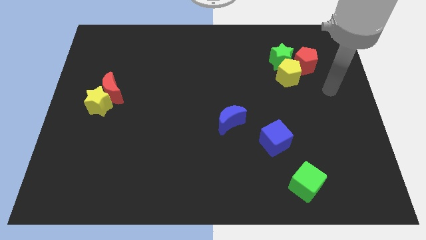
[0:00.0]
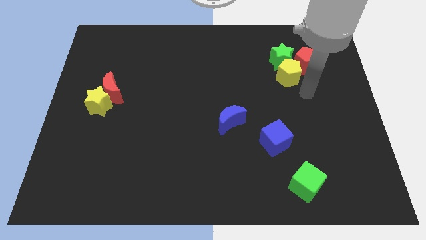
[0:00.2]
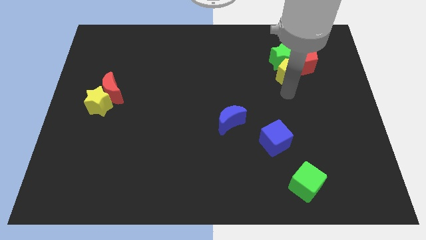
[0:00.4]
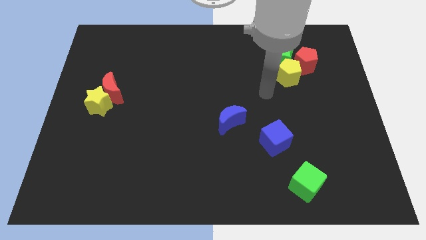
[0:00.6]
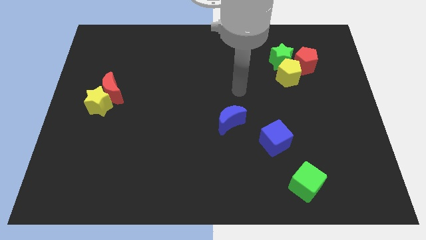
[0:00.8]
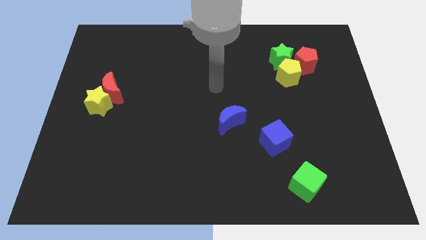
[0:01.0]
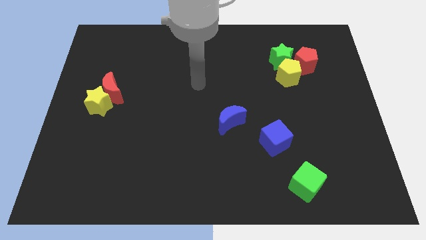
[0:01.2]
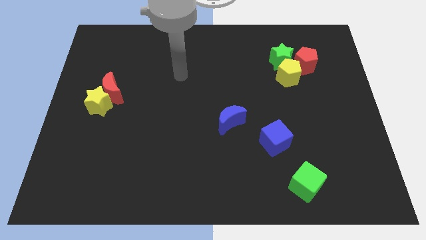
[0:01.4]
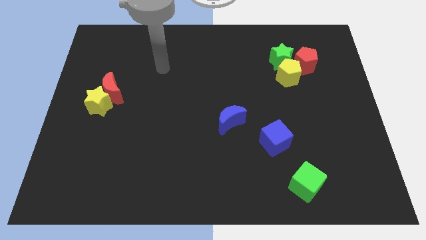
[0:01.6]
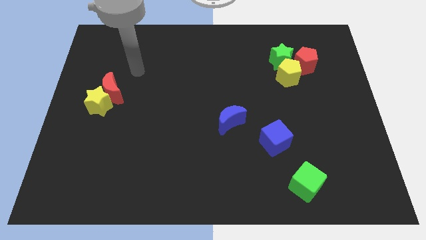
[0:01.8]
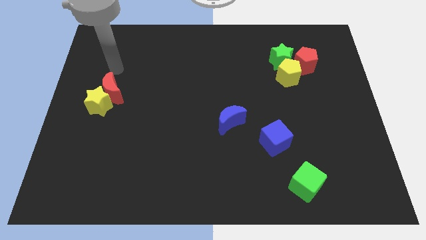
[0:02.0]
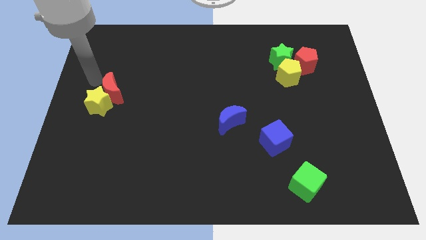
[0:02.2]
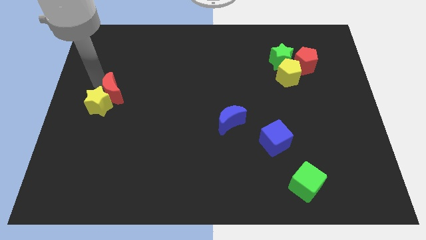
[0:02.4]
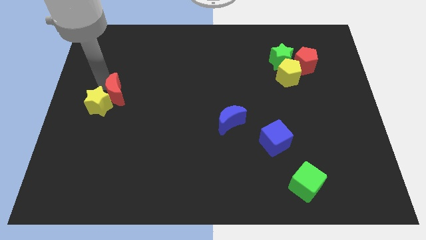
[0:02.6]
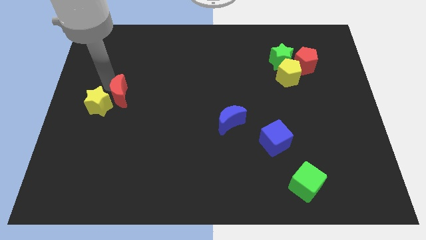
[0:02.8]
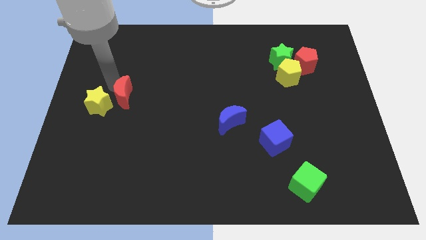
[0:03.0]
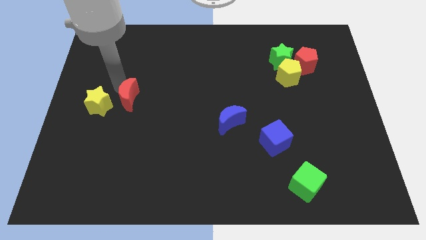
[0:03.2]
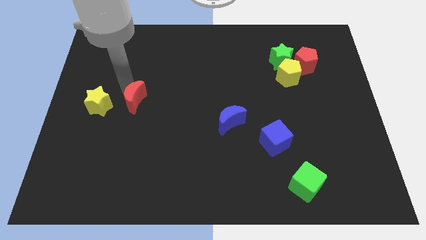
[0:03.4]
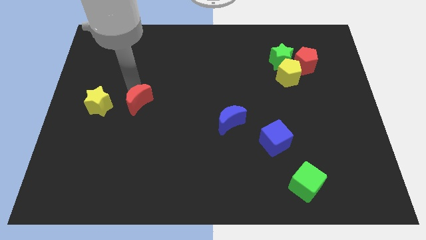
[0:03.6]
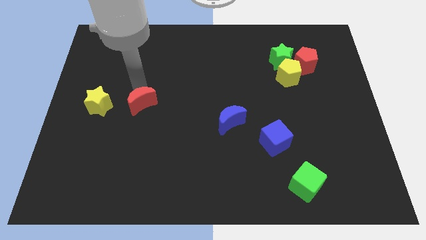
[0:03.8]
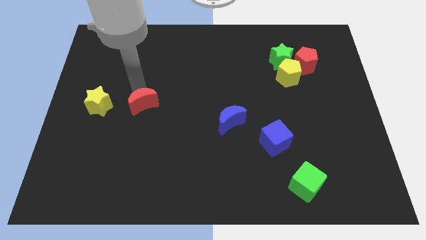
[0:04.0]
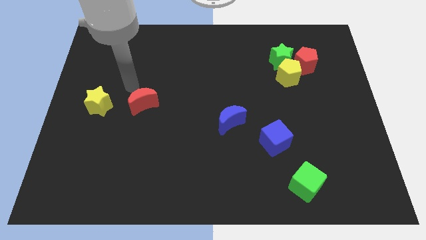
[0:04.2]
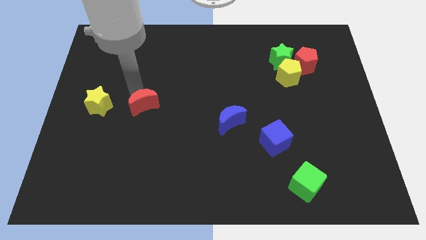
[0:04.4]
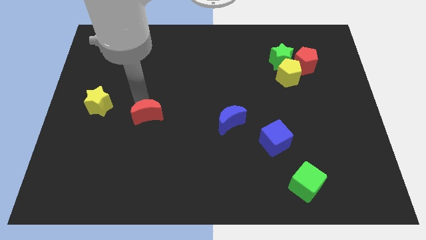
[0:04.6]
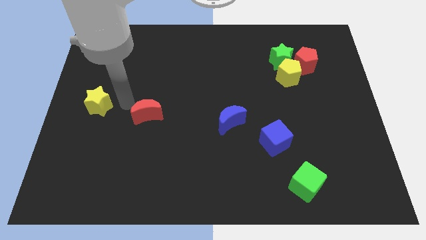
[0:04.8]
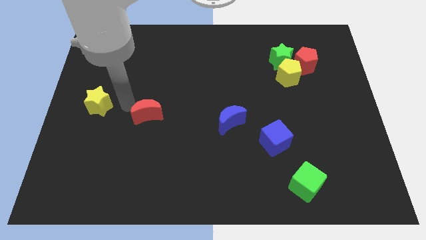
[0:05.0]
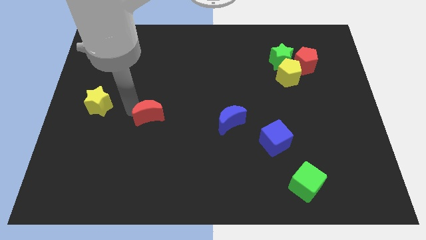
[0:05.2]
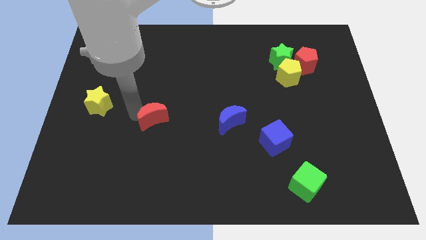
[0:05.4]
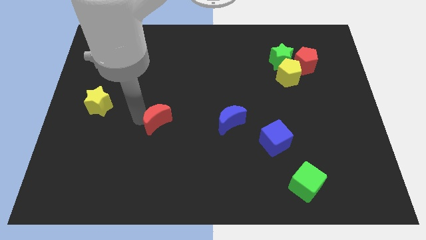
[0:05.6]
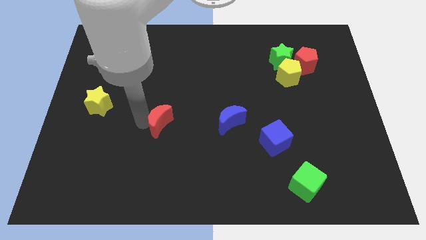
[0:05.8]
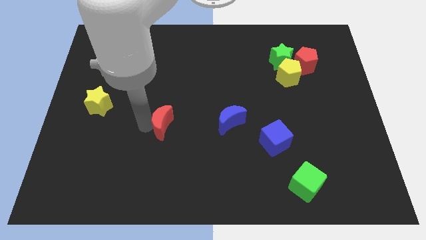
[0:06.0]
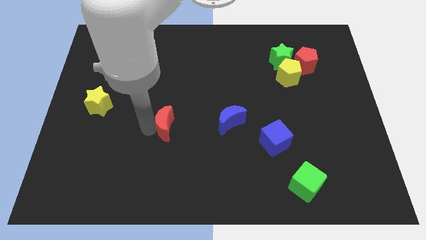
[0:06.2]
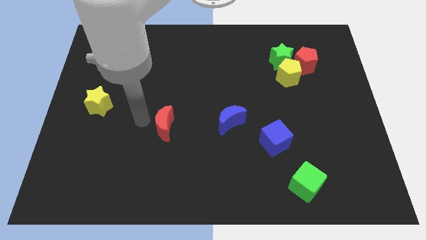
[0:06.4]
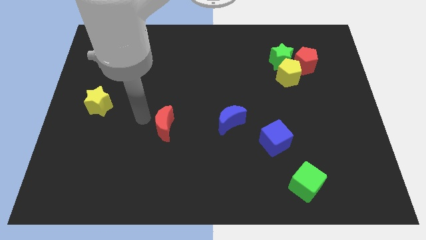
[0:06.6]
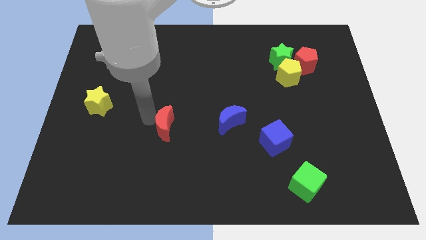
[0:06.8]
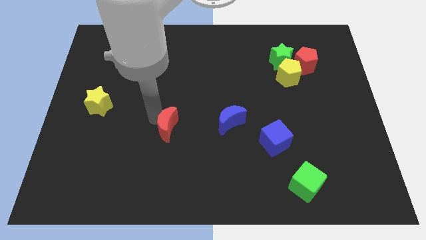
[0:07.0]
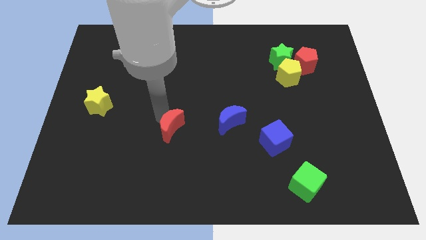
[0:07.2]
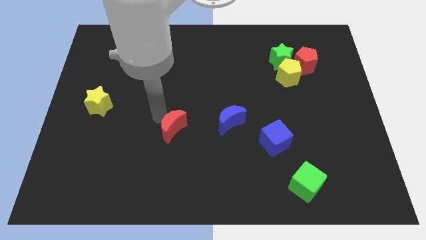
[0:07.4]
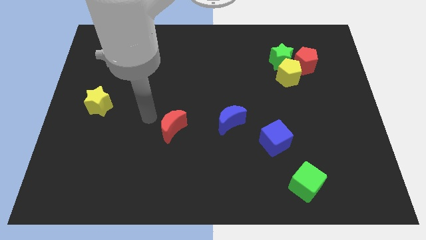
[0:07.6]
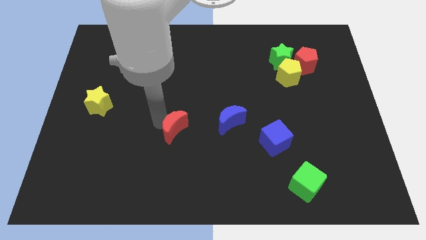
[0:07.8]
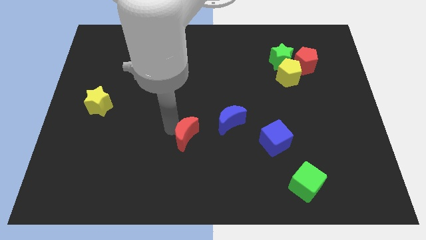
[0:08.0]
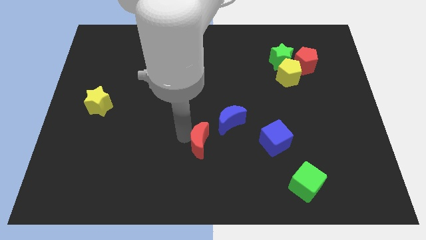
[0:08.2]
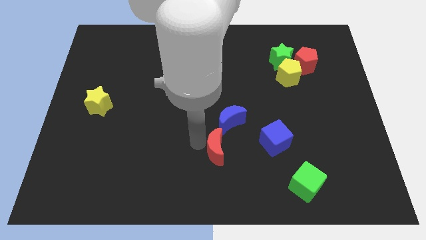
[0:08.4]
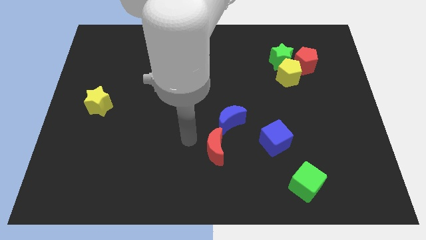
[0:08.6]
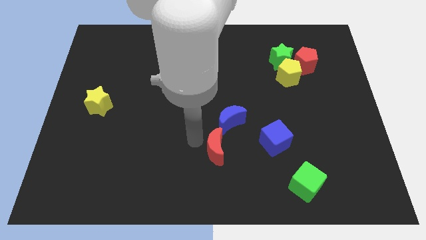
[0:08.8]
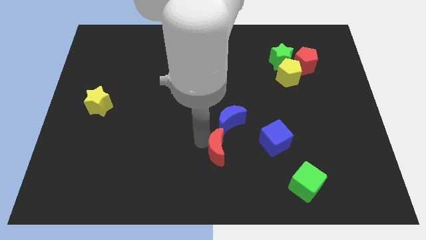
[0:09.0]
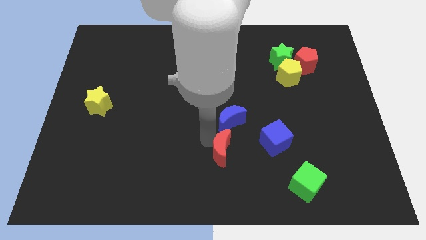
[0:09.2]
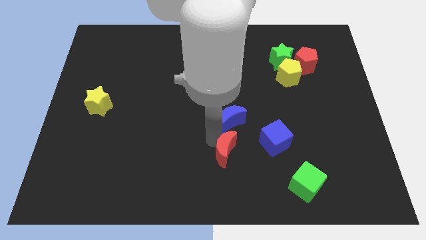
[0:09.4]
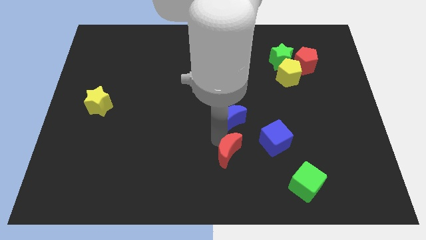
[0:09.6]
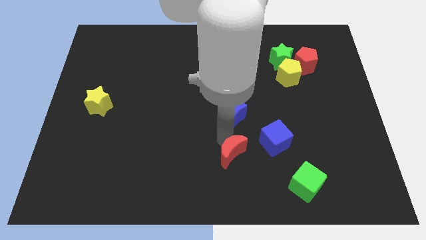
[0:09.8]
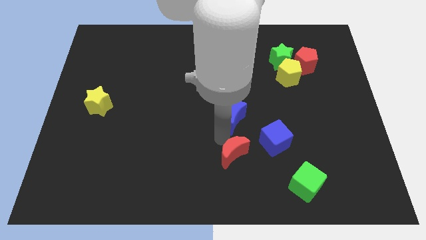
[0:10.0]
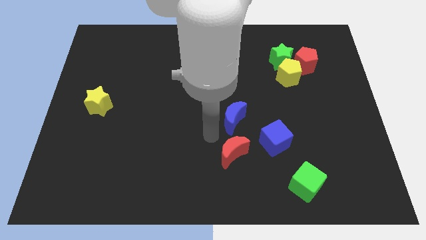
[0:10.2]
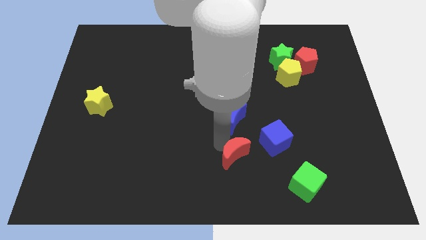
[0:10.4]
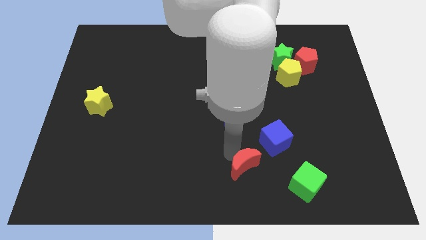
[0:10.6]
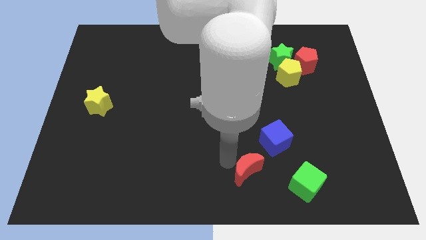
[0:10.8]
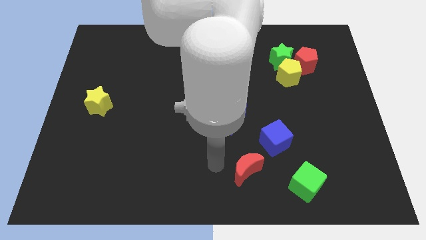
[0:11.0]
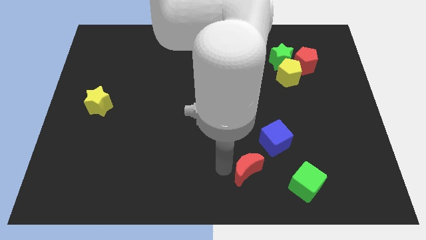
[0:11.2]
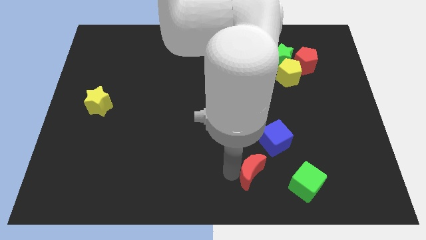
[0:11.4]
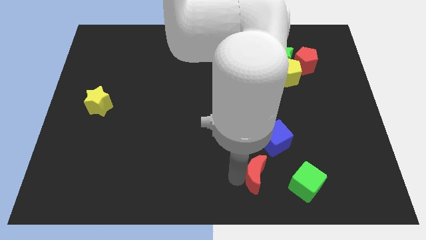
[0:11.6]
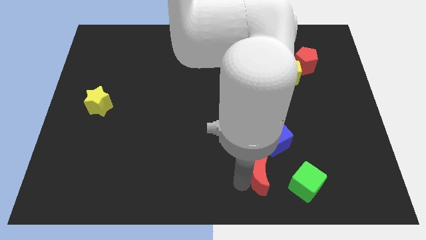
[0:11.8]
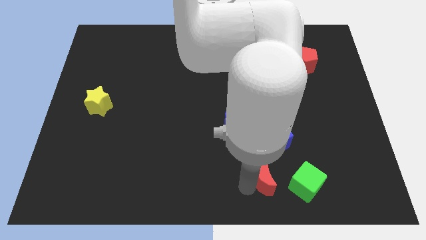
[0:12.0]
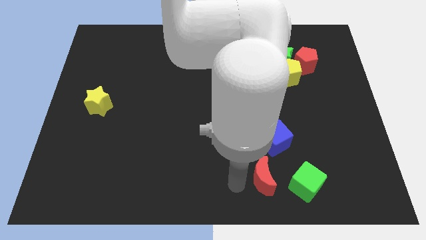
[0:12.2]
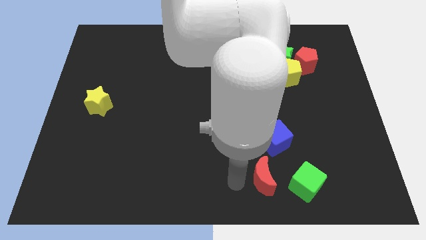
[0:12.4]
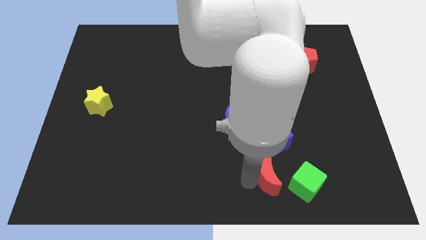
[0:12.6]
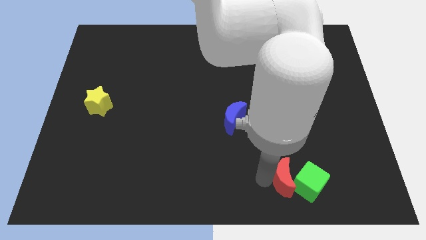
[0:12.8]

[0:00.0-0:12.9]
move the red moon next to the green cube

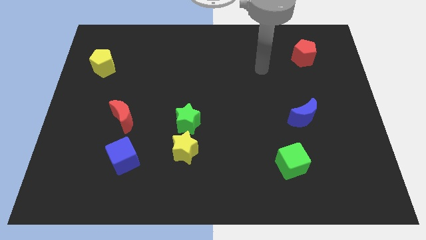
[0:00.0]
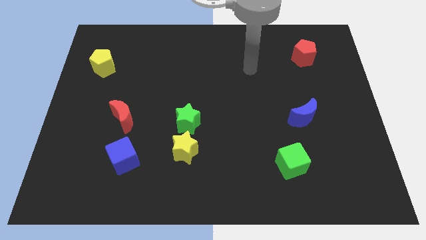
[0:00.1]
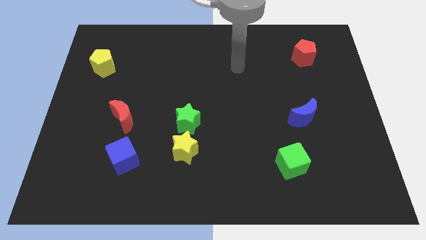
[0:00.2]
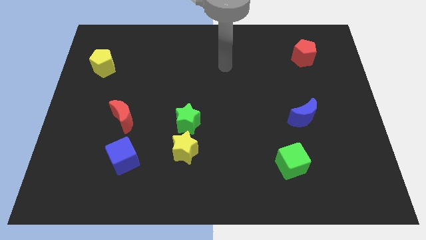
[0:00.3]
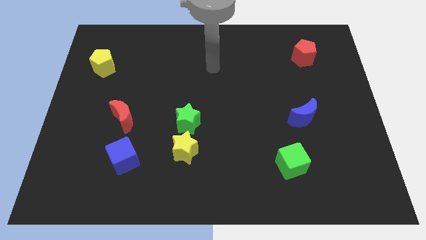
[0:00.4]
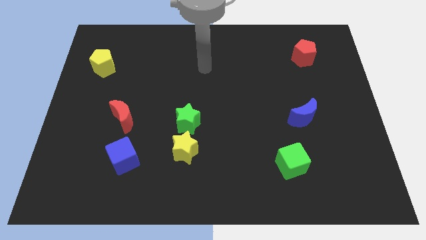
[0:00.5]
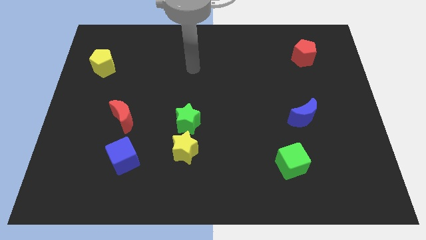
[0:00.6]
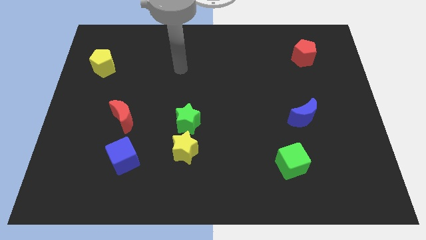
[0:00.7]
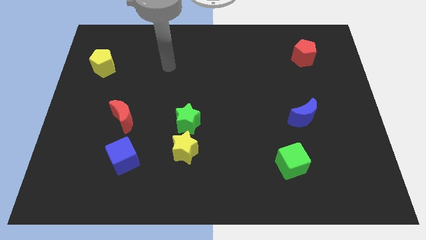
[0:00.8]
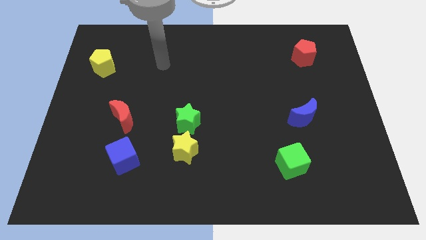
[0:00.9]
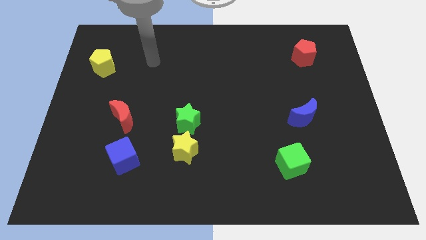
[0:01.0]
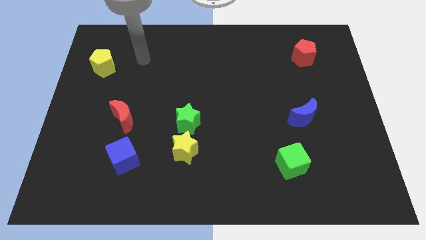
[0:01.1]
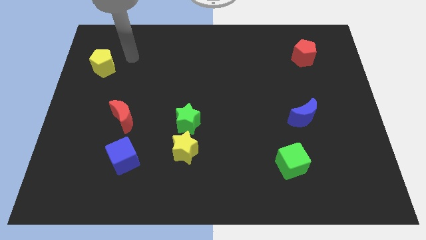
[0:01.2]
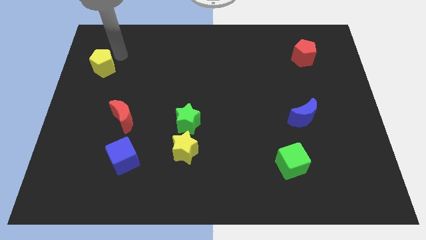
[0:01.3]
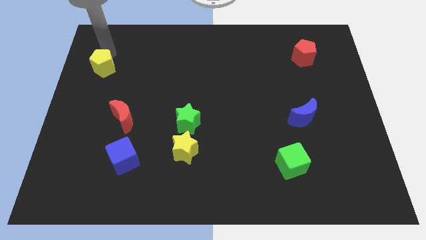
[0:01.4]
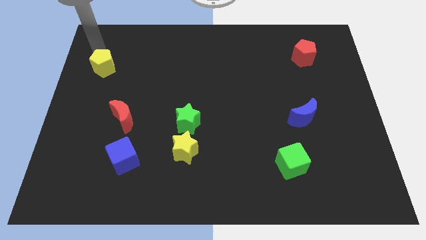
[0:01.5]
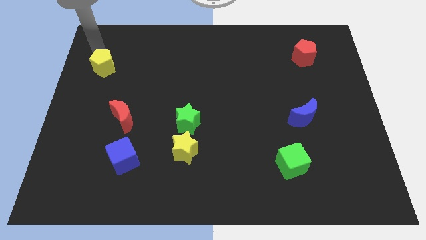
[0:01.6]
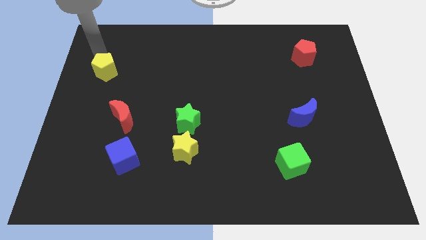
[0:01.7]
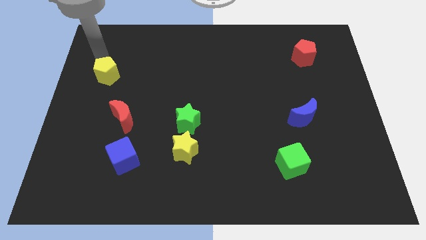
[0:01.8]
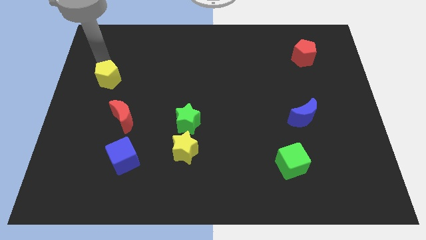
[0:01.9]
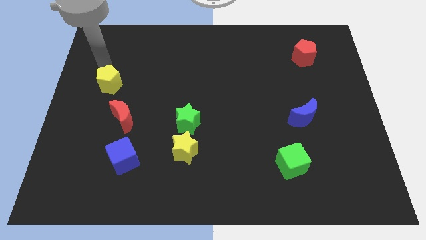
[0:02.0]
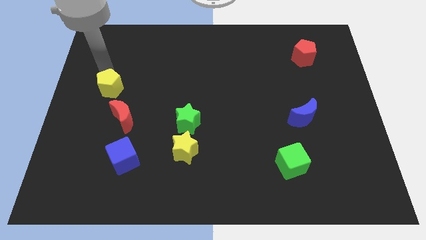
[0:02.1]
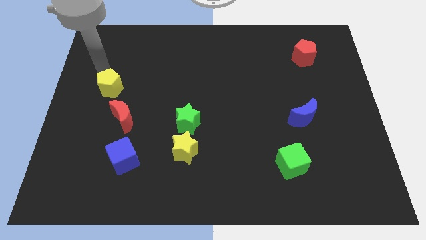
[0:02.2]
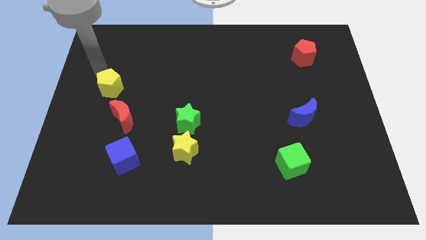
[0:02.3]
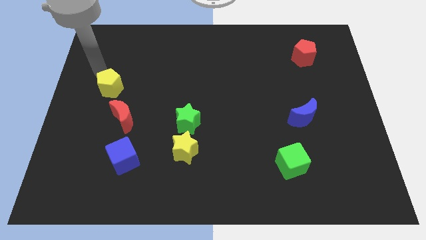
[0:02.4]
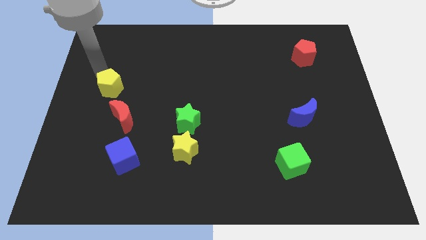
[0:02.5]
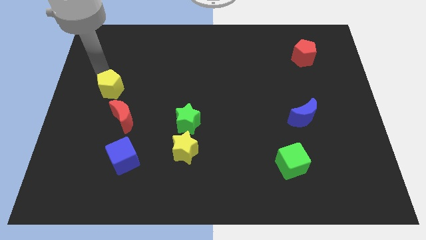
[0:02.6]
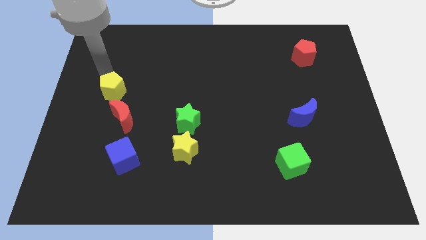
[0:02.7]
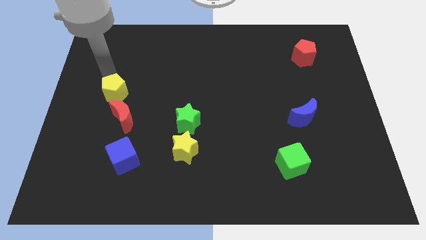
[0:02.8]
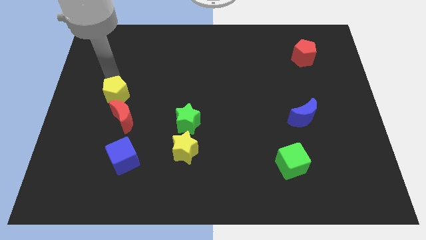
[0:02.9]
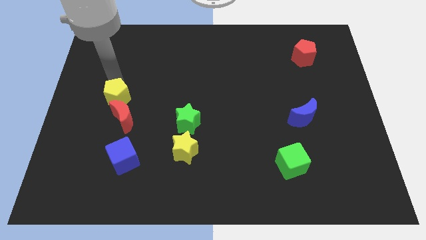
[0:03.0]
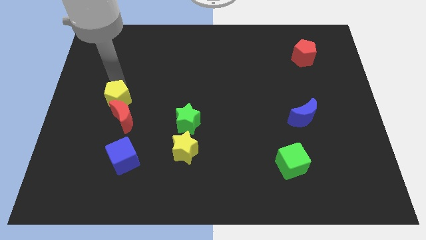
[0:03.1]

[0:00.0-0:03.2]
put the yellow pentagon to the red moon
